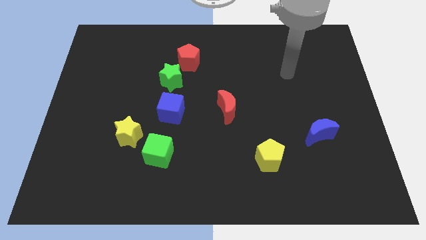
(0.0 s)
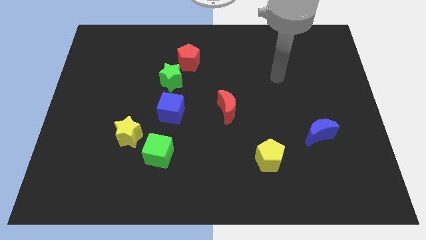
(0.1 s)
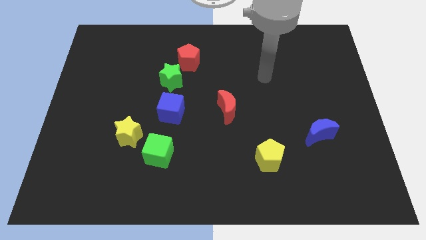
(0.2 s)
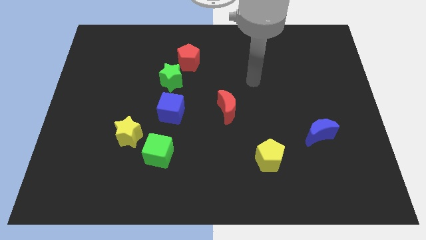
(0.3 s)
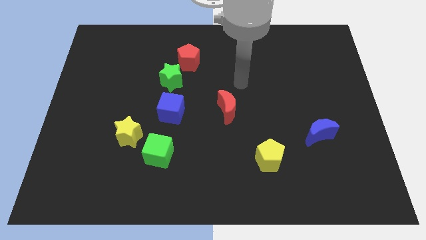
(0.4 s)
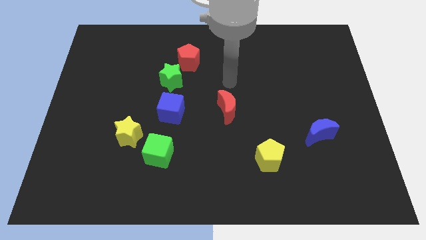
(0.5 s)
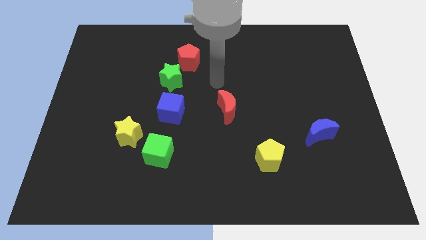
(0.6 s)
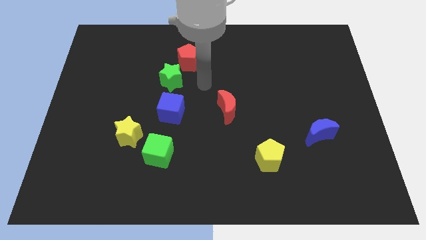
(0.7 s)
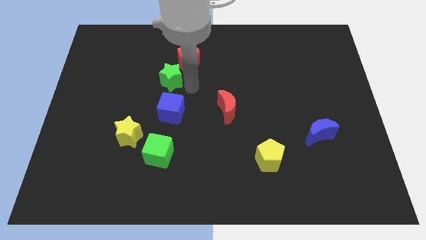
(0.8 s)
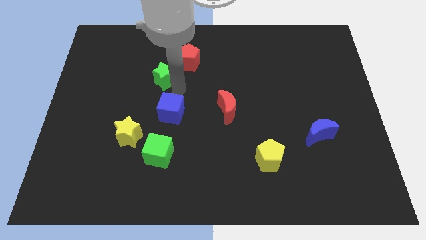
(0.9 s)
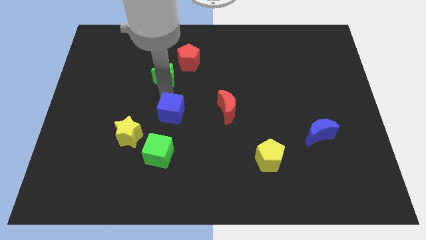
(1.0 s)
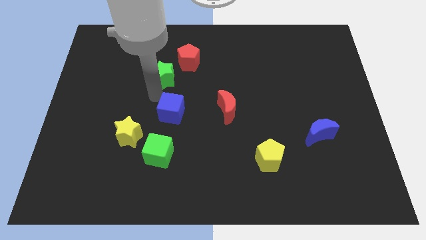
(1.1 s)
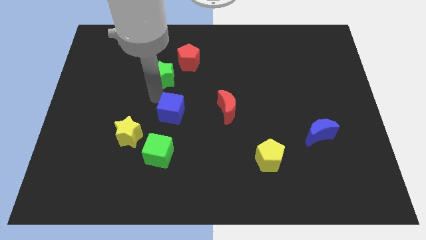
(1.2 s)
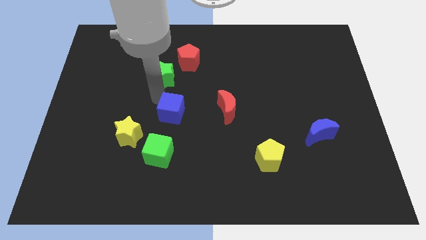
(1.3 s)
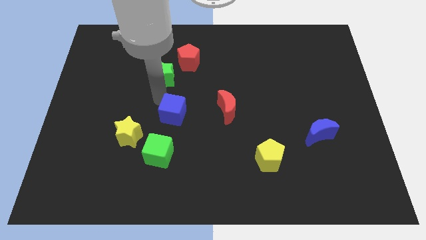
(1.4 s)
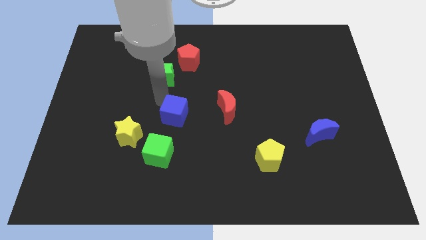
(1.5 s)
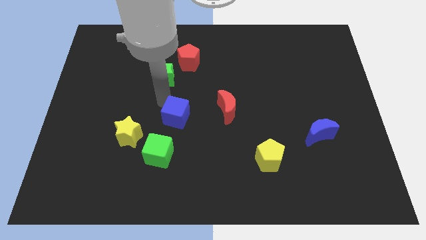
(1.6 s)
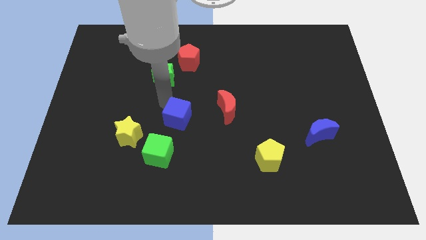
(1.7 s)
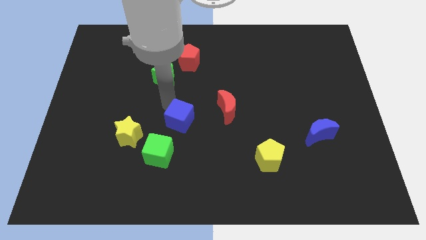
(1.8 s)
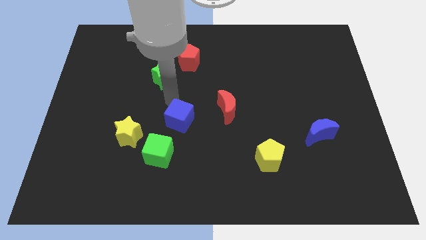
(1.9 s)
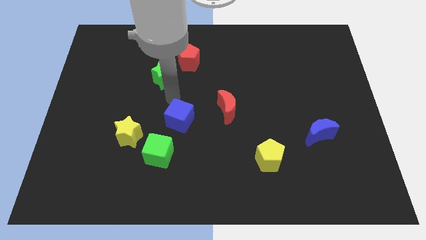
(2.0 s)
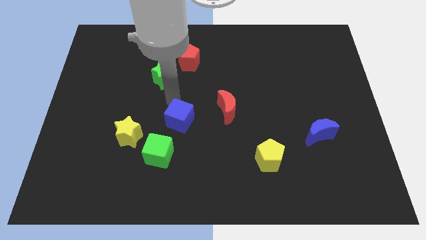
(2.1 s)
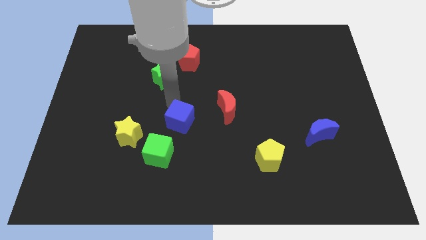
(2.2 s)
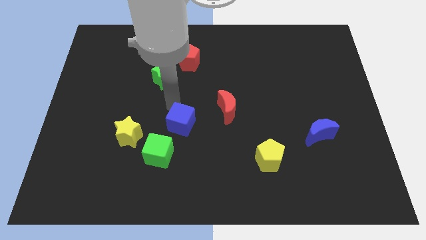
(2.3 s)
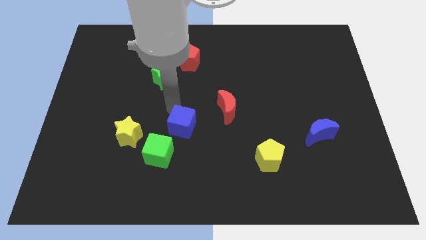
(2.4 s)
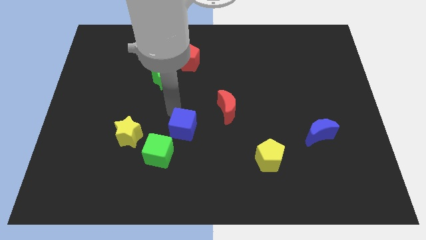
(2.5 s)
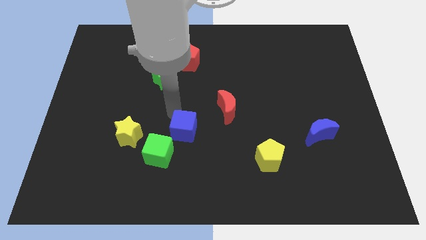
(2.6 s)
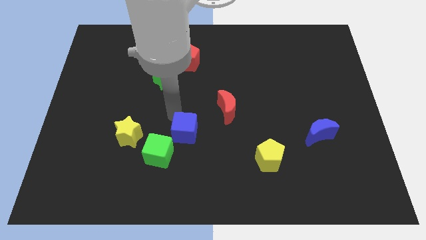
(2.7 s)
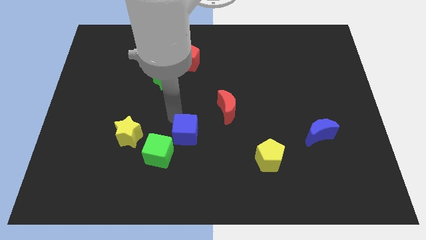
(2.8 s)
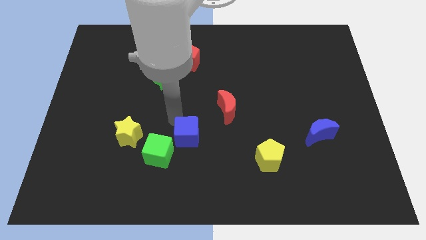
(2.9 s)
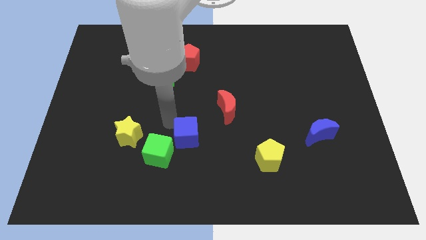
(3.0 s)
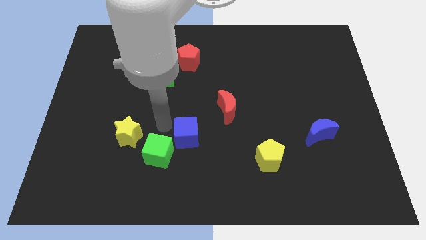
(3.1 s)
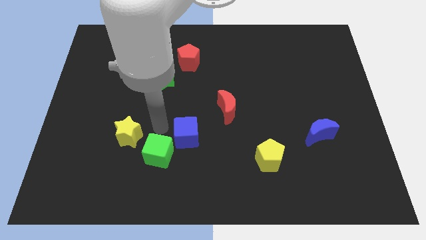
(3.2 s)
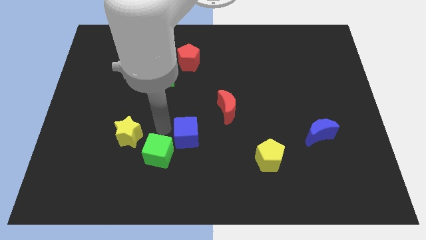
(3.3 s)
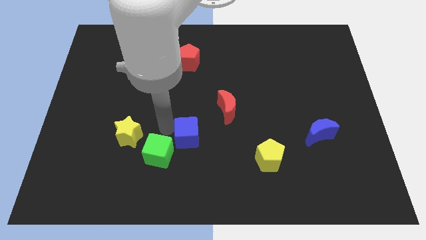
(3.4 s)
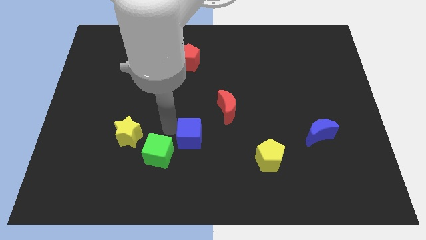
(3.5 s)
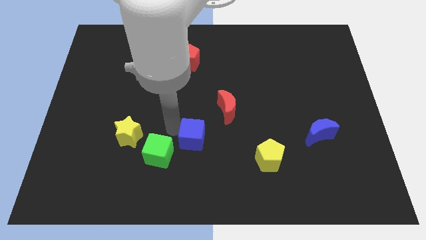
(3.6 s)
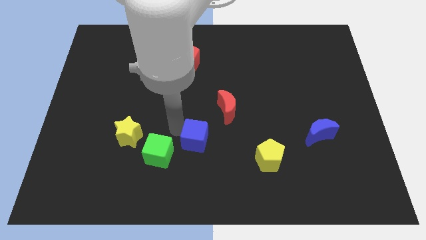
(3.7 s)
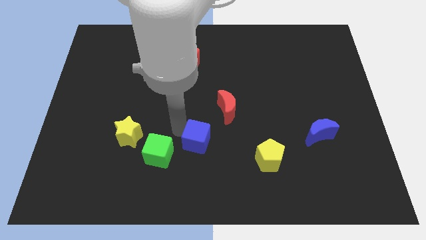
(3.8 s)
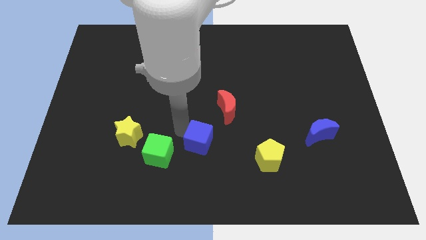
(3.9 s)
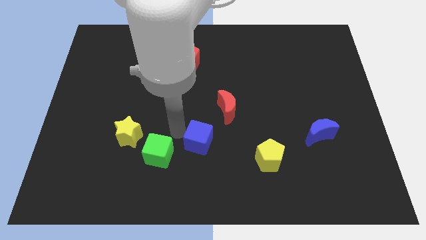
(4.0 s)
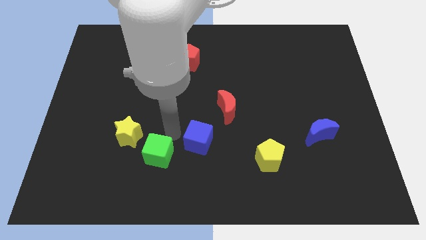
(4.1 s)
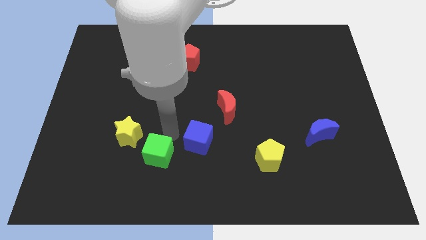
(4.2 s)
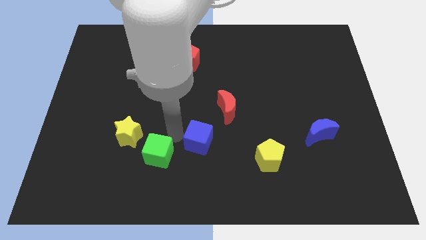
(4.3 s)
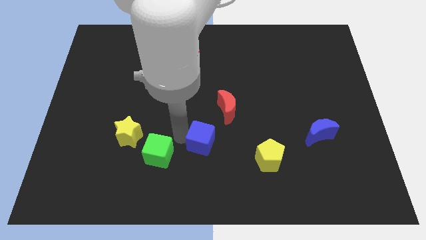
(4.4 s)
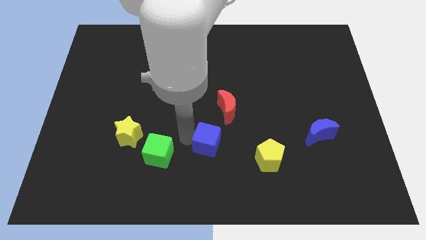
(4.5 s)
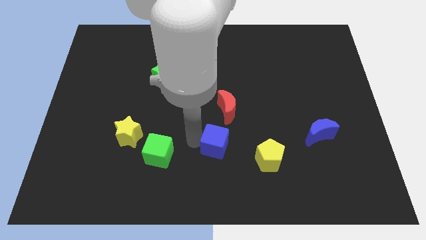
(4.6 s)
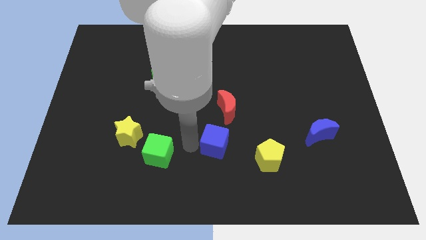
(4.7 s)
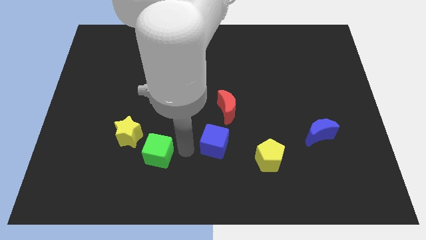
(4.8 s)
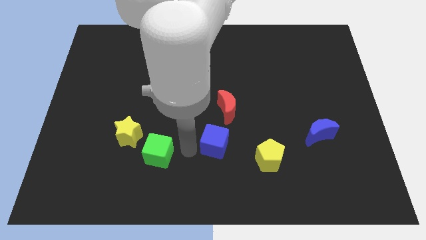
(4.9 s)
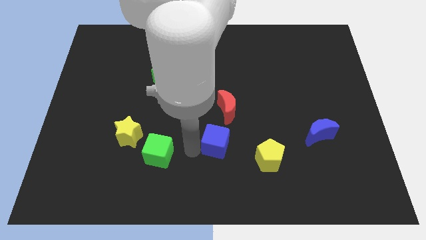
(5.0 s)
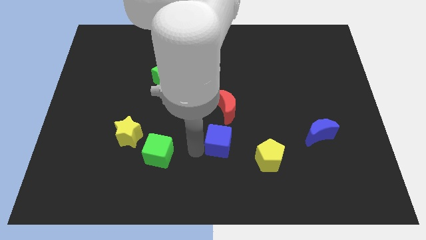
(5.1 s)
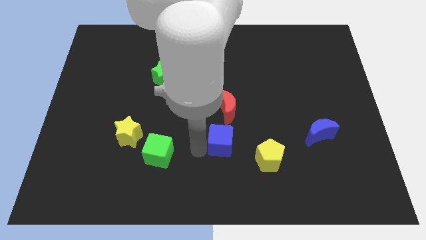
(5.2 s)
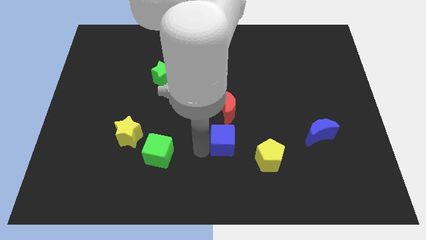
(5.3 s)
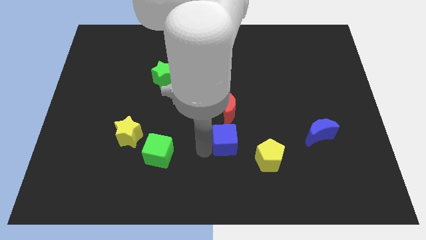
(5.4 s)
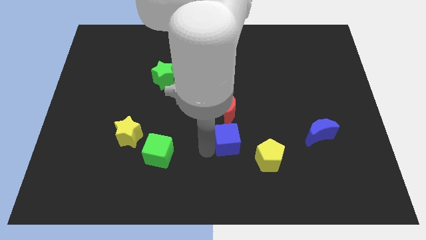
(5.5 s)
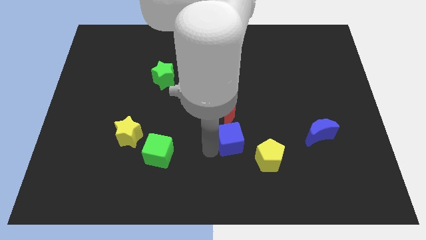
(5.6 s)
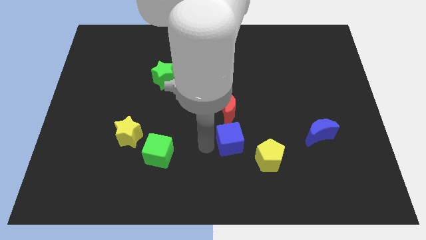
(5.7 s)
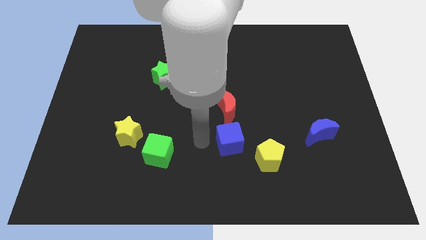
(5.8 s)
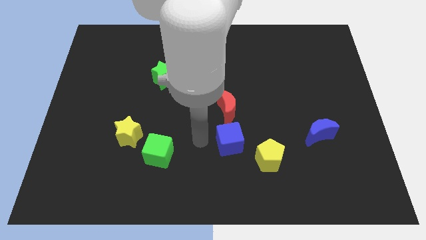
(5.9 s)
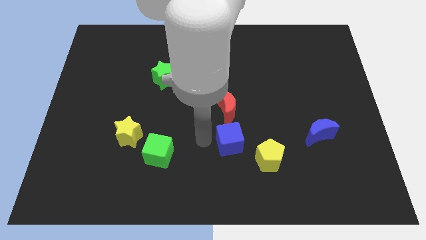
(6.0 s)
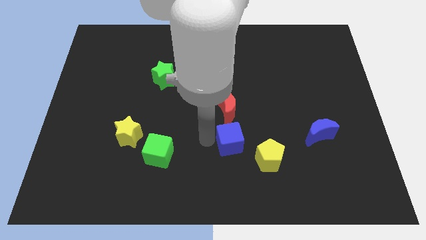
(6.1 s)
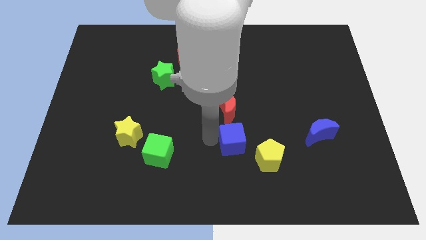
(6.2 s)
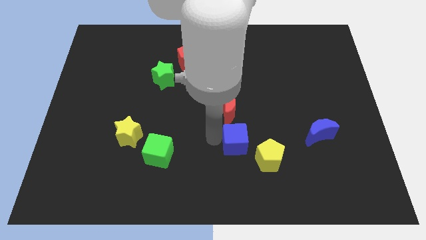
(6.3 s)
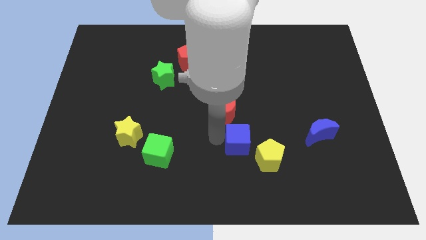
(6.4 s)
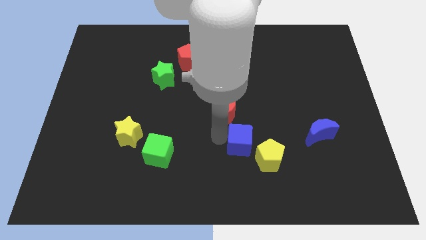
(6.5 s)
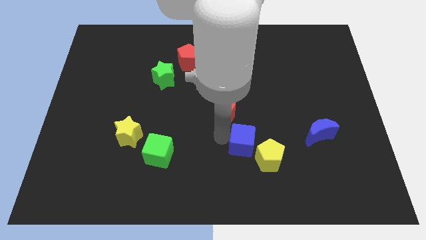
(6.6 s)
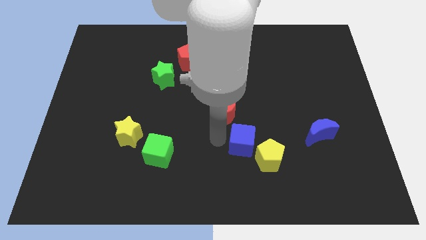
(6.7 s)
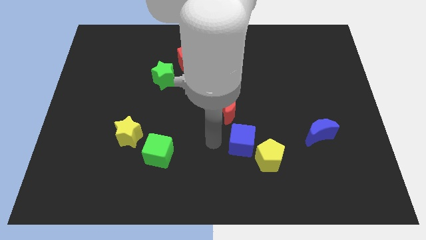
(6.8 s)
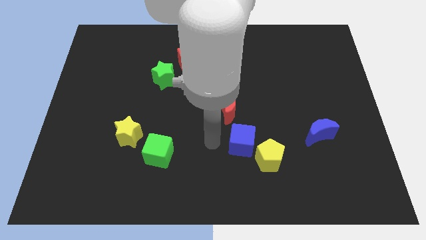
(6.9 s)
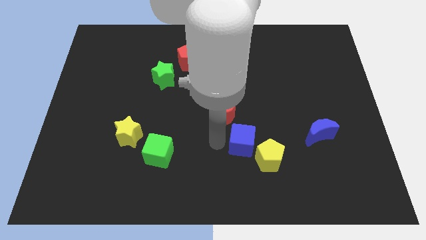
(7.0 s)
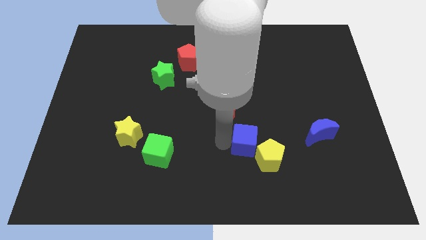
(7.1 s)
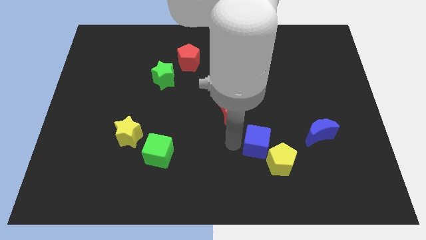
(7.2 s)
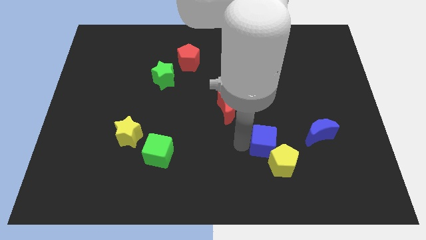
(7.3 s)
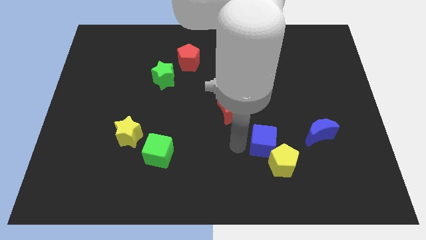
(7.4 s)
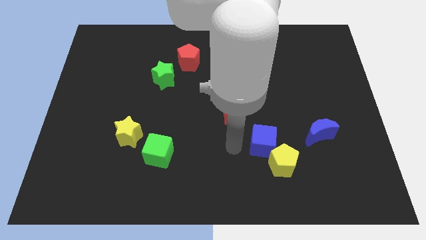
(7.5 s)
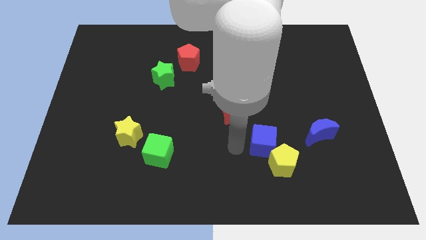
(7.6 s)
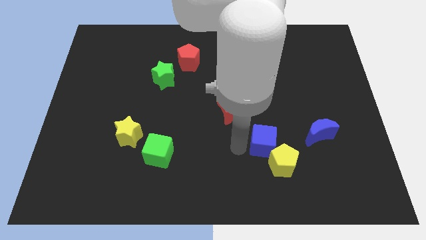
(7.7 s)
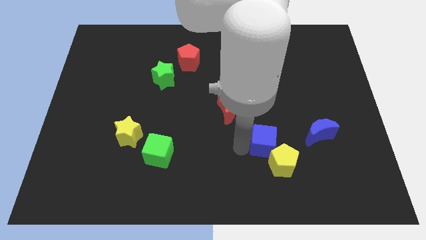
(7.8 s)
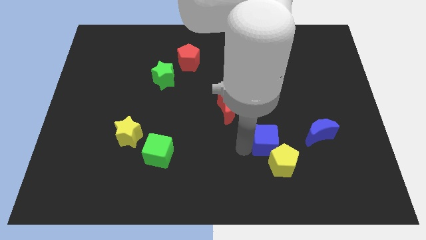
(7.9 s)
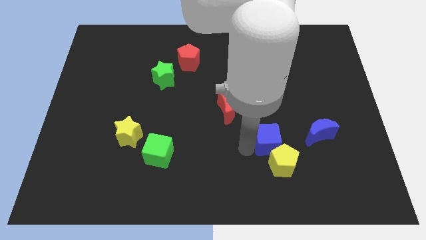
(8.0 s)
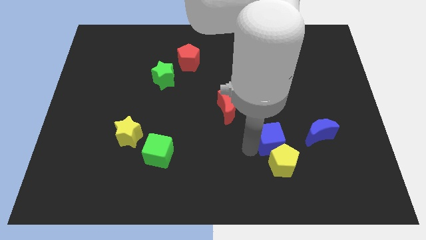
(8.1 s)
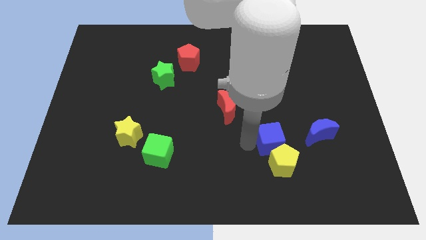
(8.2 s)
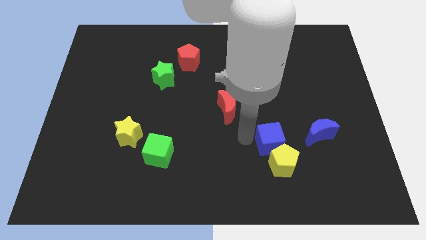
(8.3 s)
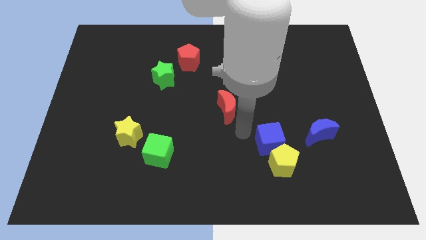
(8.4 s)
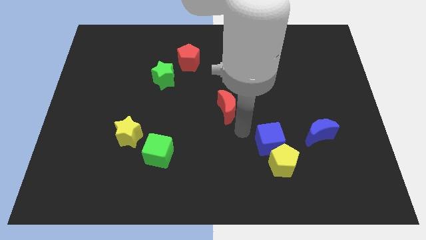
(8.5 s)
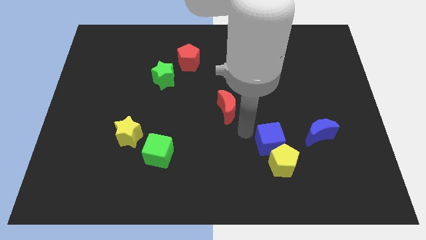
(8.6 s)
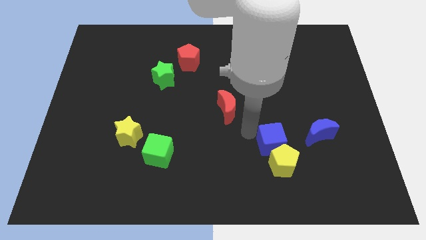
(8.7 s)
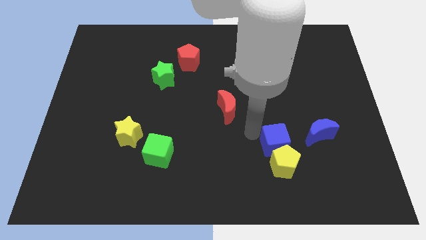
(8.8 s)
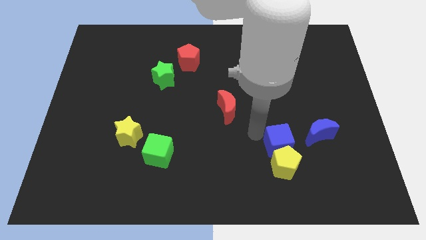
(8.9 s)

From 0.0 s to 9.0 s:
push the blue cube to the bottom left side of the blue moon
